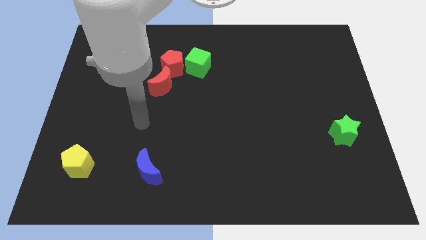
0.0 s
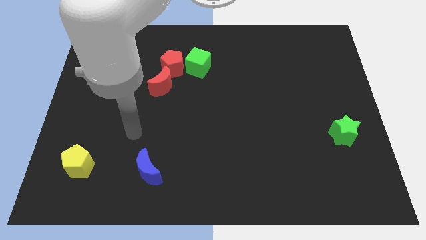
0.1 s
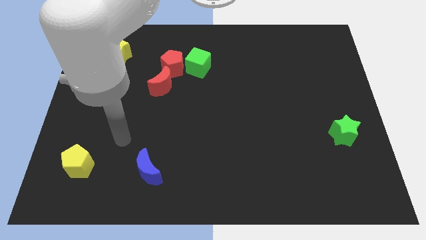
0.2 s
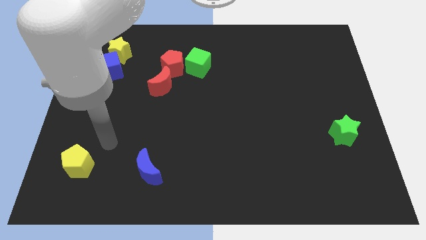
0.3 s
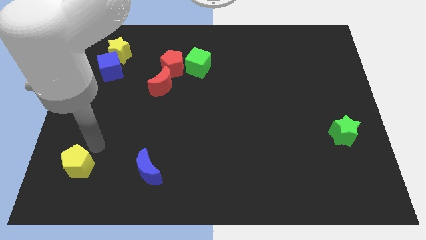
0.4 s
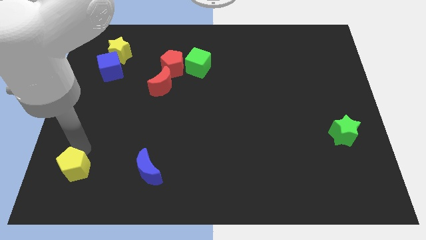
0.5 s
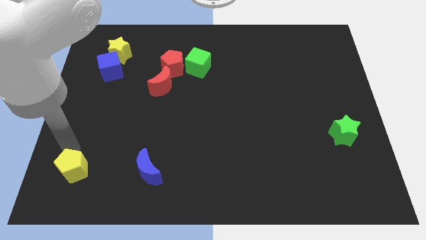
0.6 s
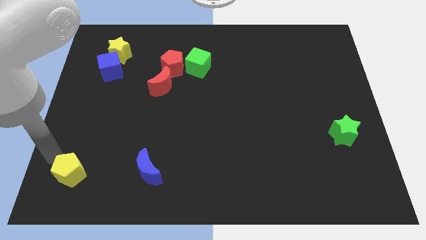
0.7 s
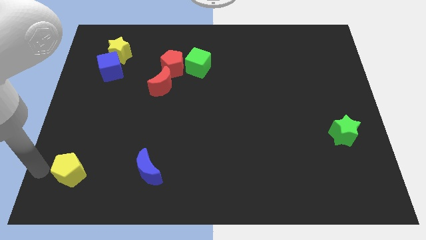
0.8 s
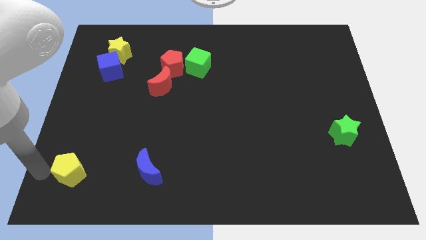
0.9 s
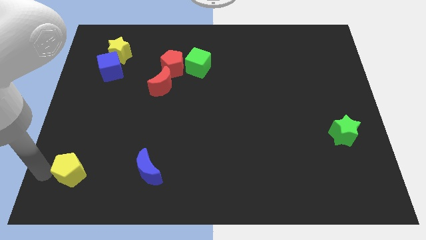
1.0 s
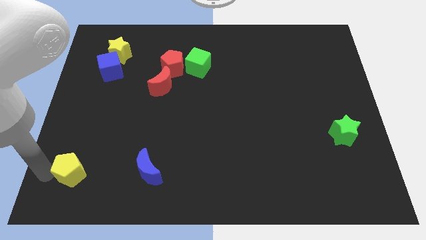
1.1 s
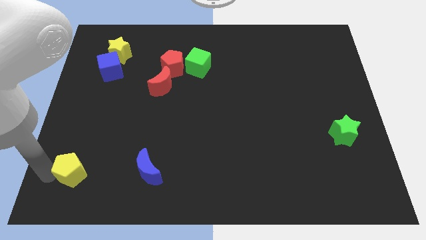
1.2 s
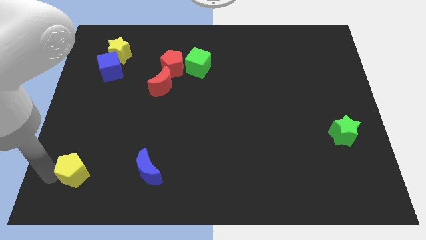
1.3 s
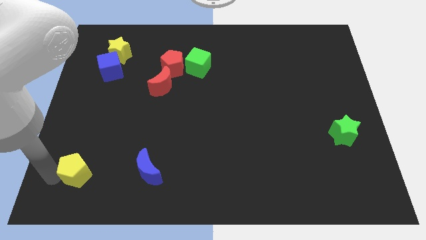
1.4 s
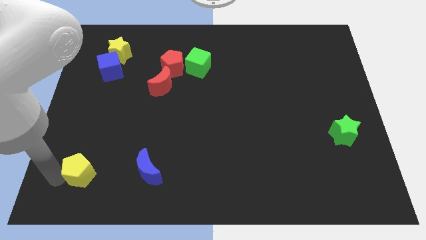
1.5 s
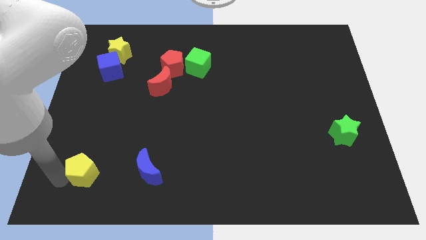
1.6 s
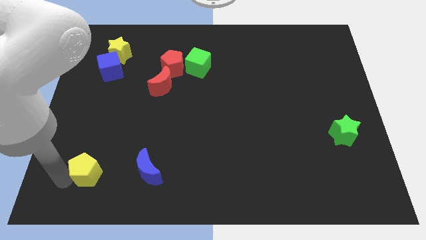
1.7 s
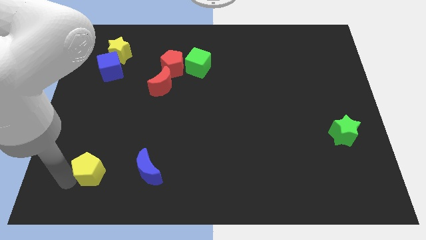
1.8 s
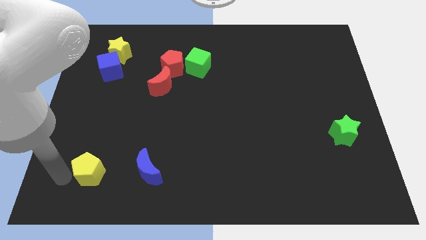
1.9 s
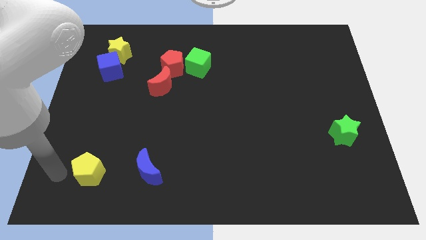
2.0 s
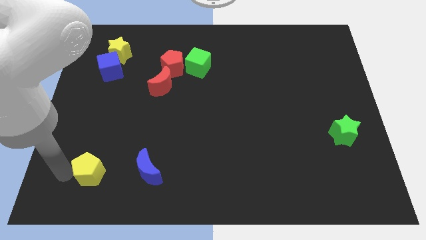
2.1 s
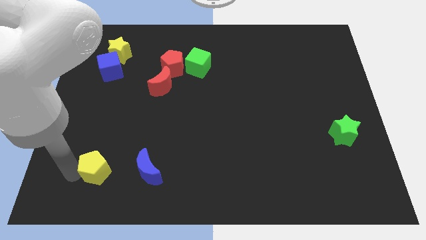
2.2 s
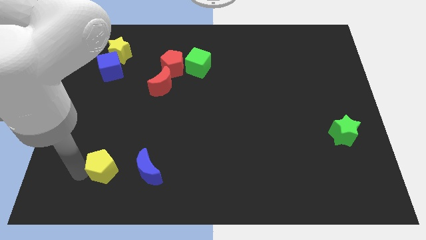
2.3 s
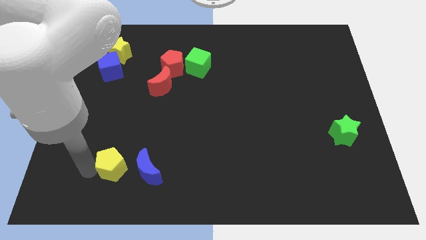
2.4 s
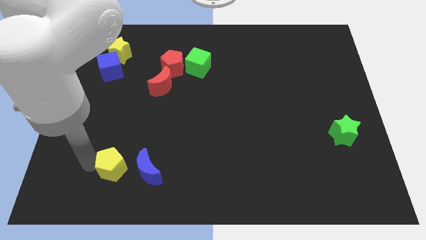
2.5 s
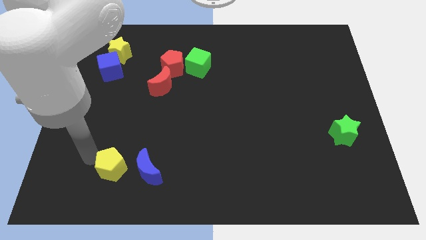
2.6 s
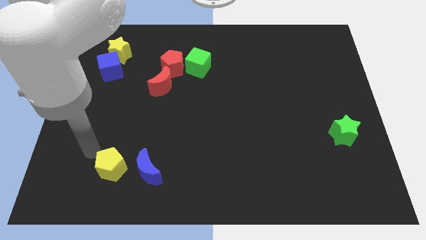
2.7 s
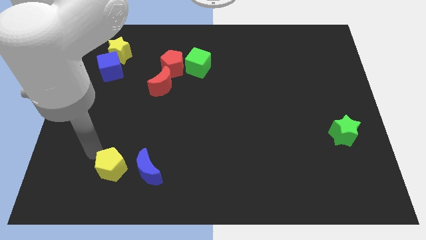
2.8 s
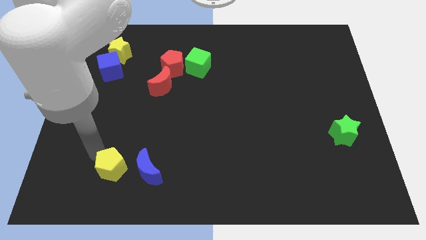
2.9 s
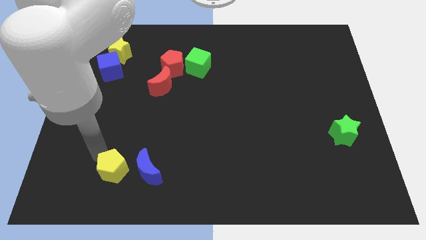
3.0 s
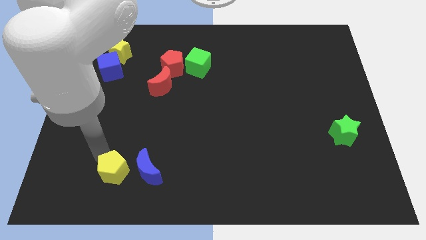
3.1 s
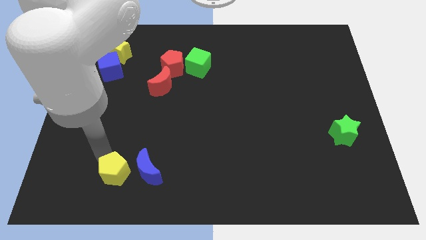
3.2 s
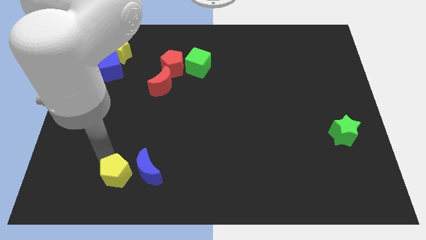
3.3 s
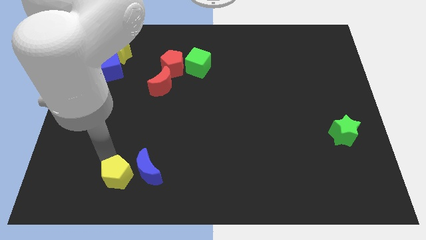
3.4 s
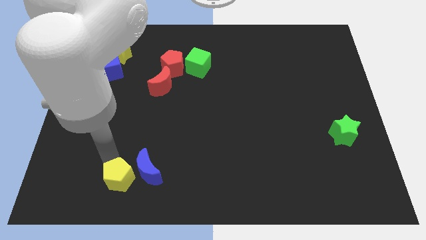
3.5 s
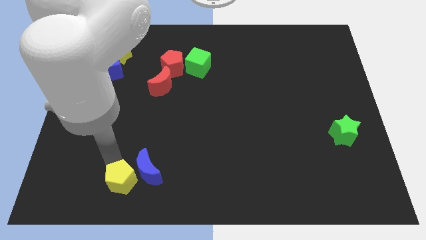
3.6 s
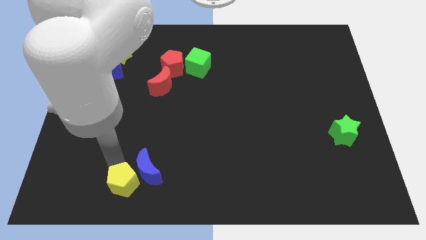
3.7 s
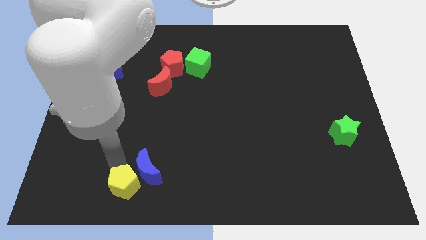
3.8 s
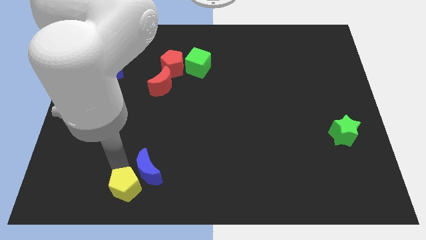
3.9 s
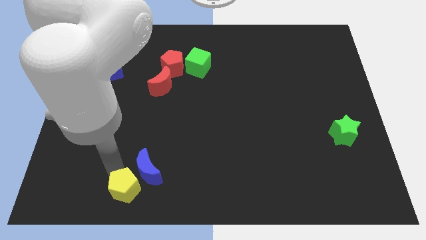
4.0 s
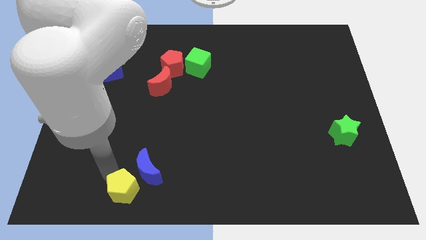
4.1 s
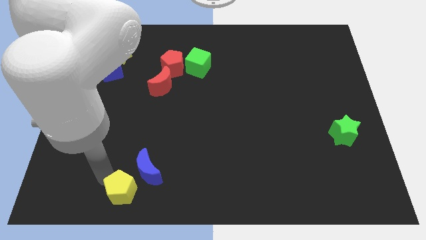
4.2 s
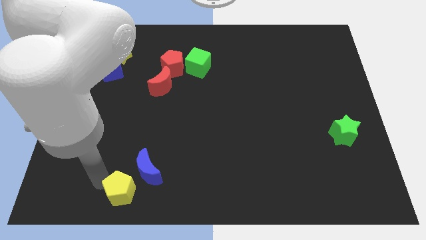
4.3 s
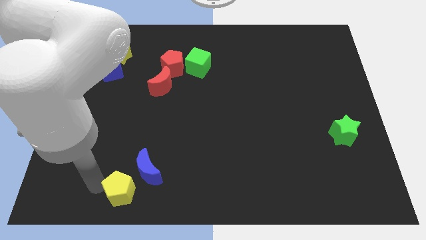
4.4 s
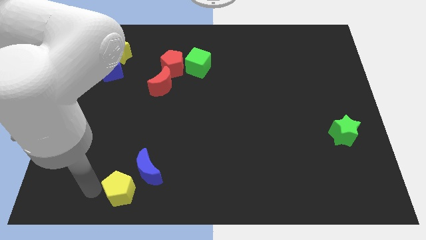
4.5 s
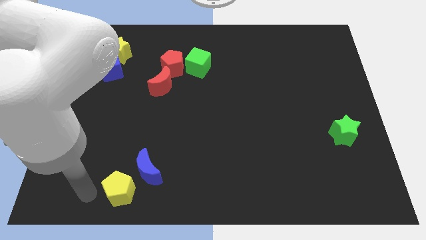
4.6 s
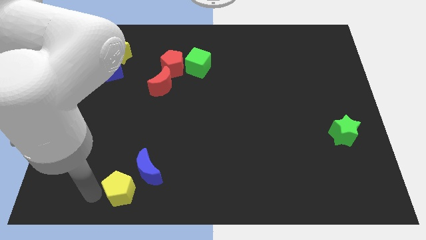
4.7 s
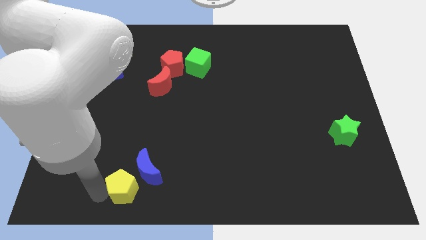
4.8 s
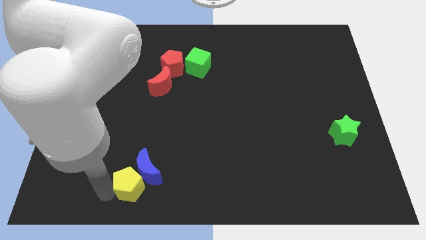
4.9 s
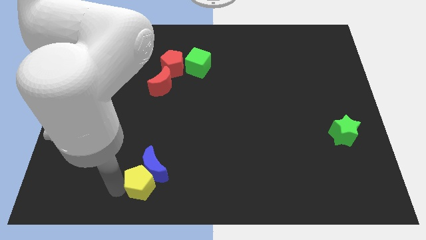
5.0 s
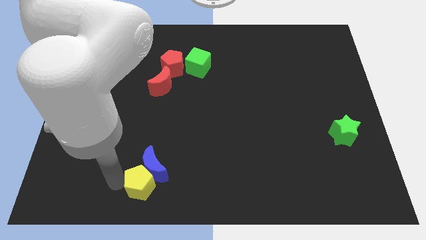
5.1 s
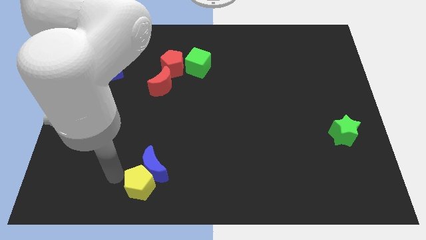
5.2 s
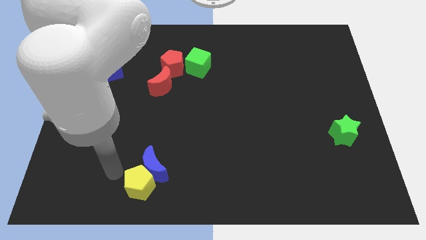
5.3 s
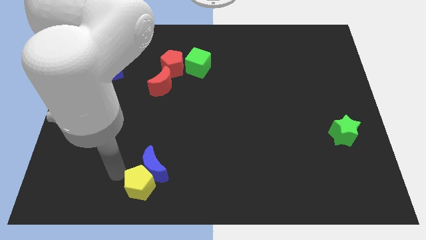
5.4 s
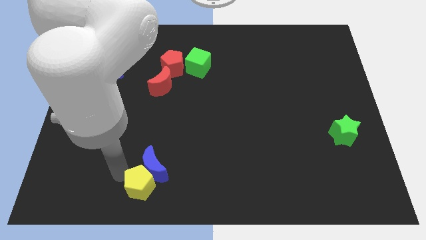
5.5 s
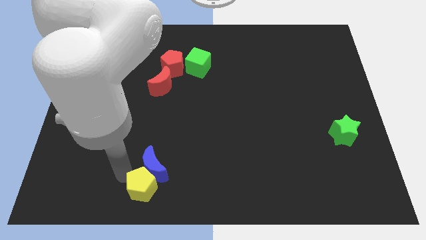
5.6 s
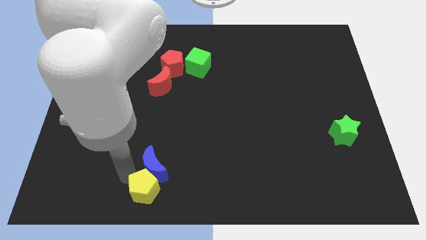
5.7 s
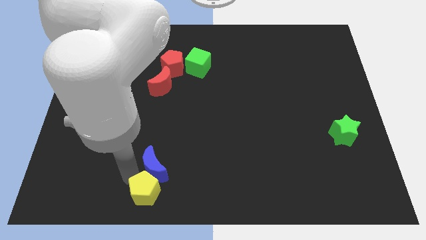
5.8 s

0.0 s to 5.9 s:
put the yellow pentagon to the bottom side
